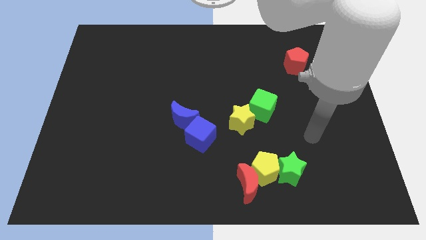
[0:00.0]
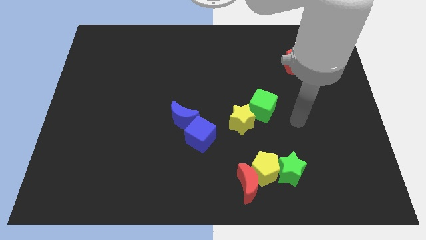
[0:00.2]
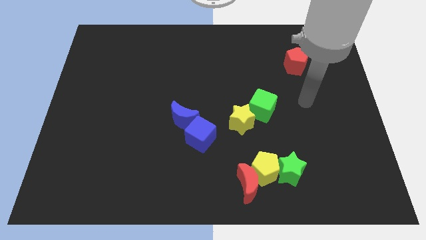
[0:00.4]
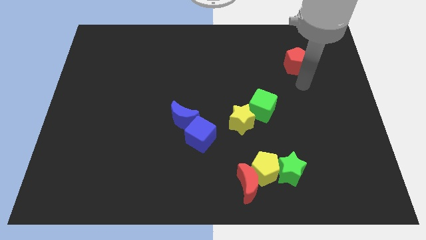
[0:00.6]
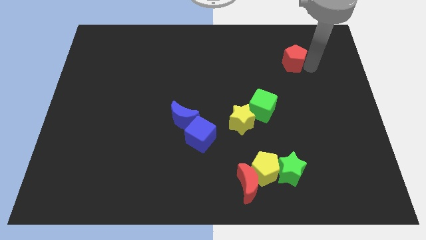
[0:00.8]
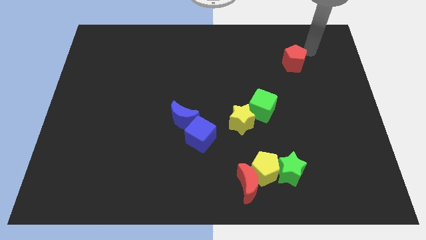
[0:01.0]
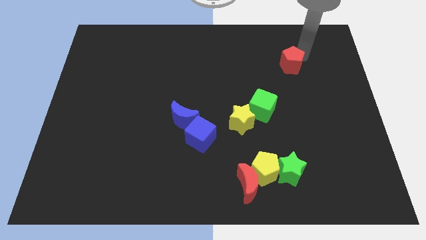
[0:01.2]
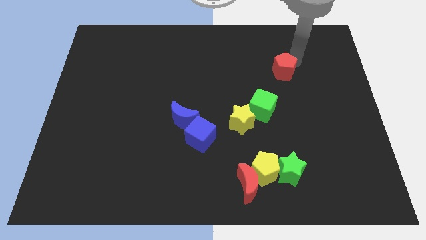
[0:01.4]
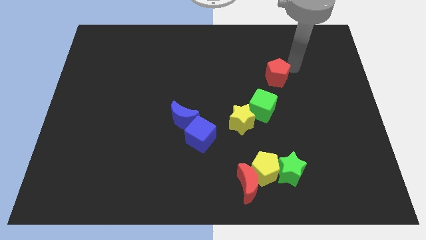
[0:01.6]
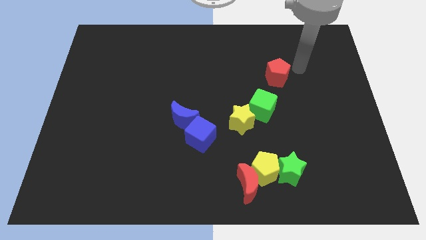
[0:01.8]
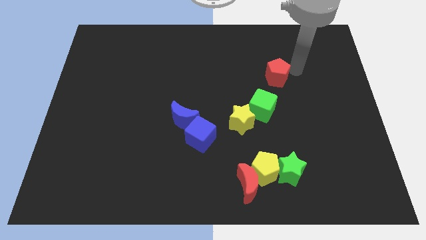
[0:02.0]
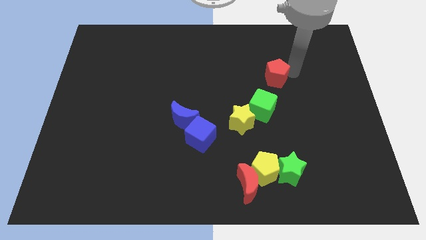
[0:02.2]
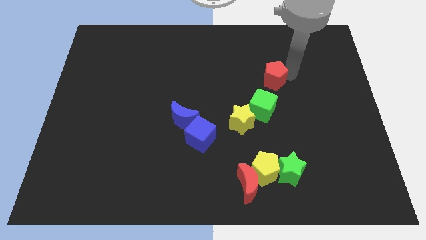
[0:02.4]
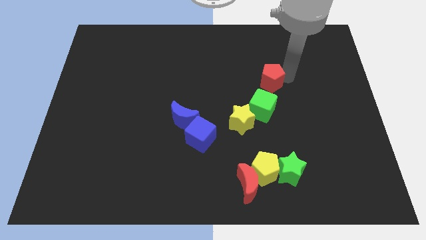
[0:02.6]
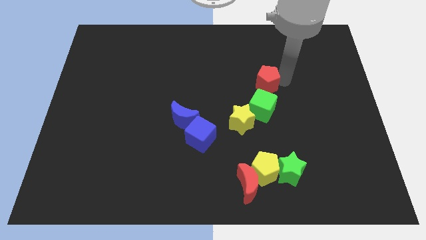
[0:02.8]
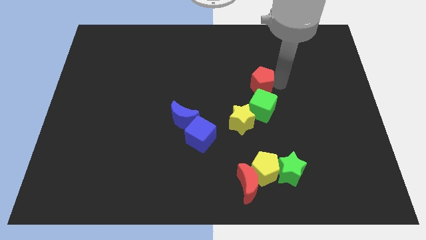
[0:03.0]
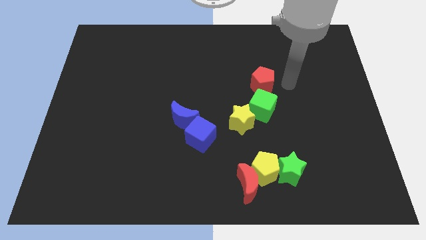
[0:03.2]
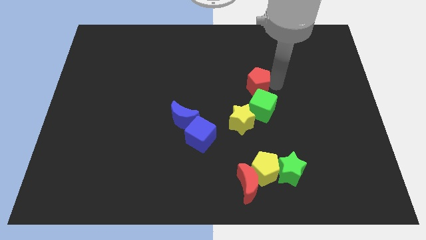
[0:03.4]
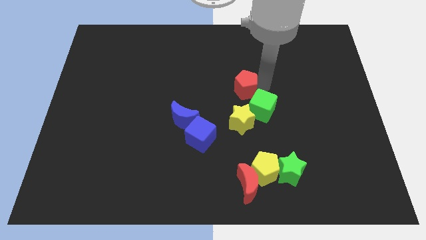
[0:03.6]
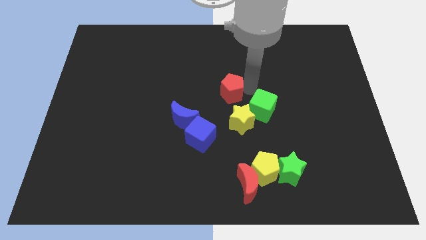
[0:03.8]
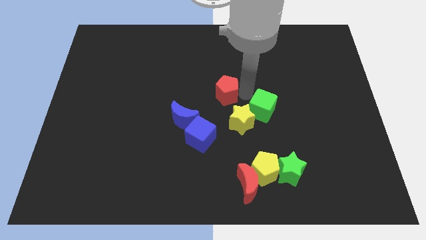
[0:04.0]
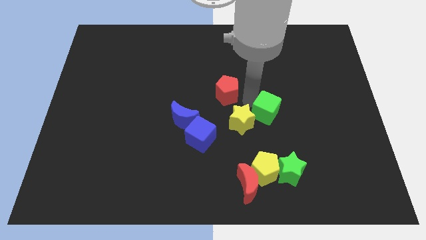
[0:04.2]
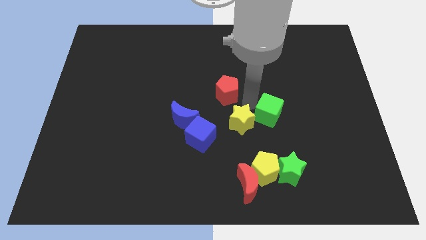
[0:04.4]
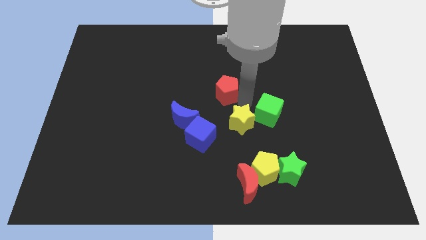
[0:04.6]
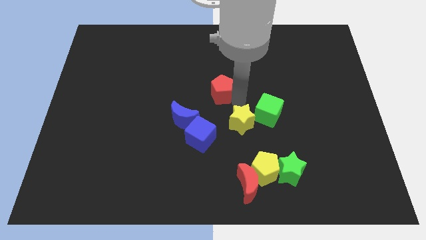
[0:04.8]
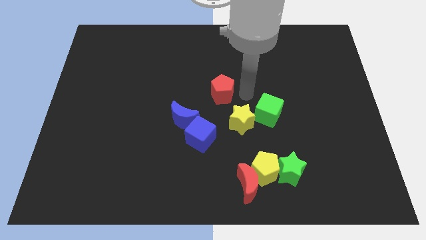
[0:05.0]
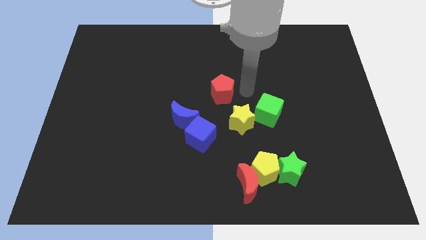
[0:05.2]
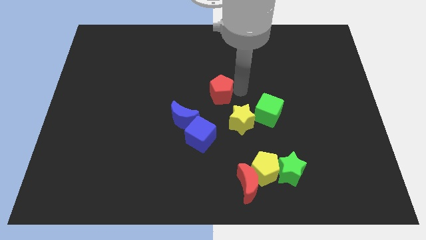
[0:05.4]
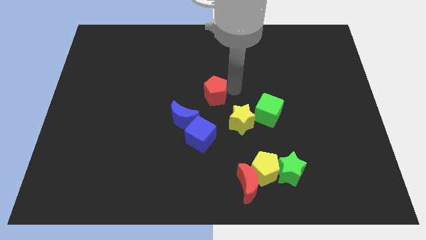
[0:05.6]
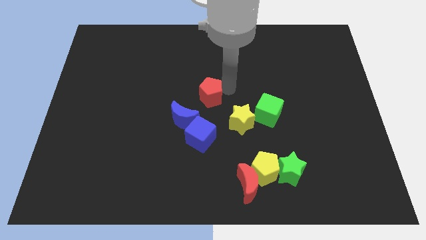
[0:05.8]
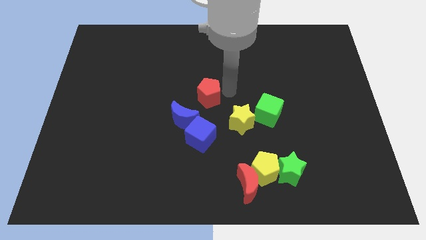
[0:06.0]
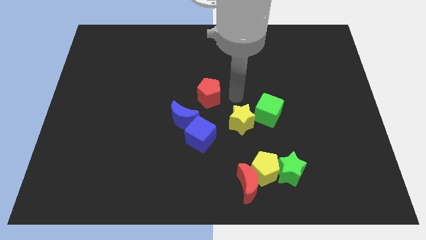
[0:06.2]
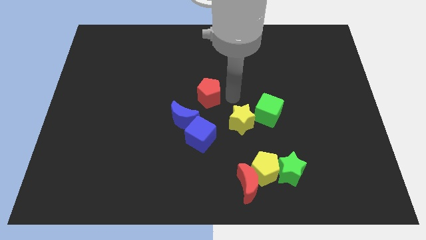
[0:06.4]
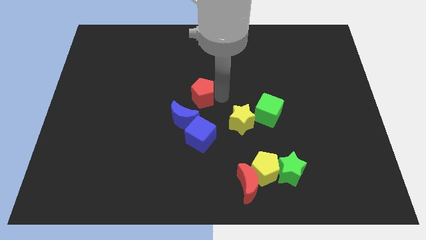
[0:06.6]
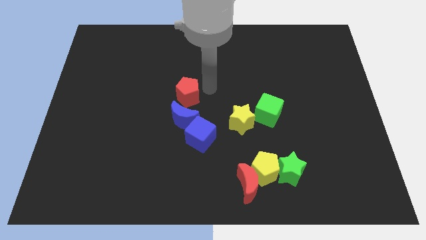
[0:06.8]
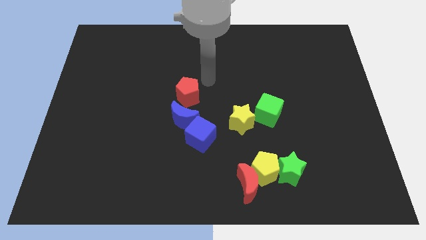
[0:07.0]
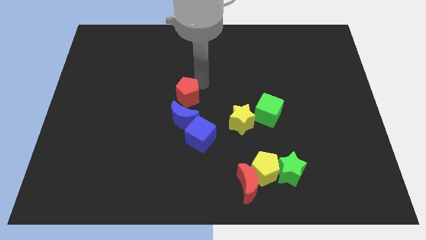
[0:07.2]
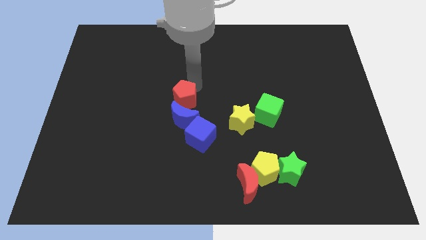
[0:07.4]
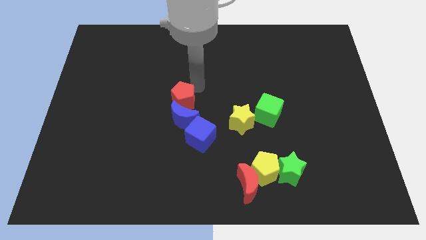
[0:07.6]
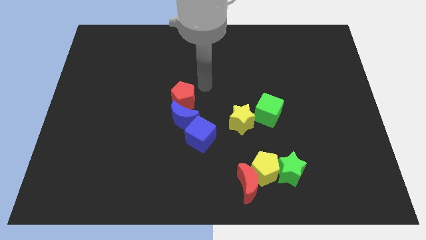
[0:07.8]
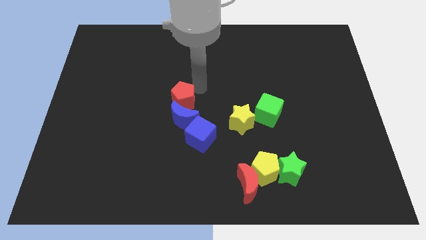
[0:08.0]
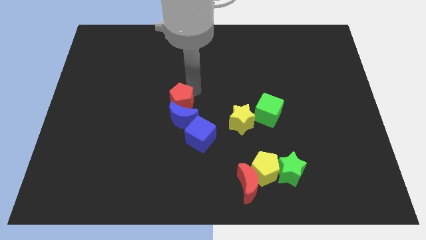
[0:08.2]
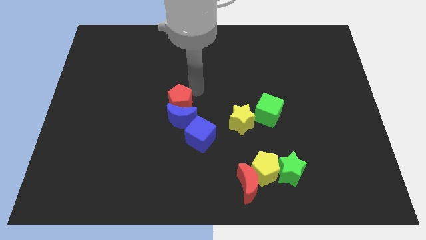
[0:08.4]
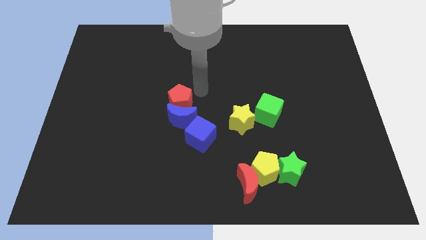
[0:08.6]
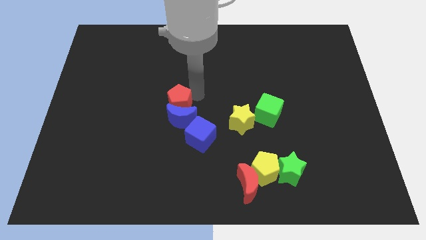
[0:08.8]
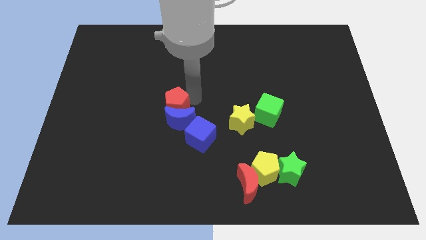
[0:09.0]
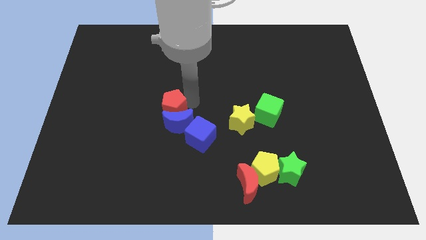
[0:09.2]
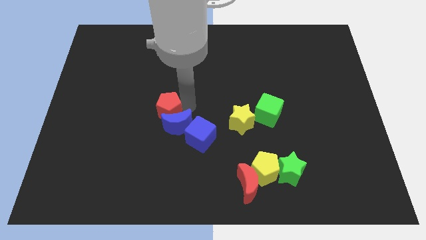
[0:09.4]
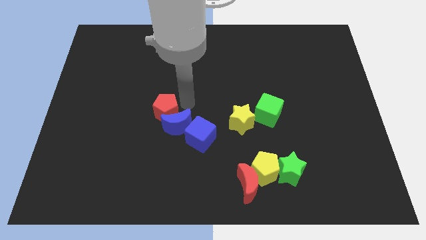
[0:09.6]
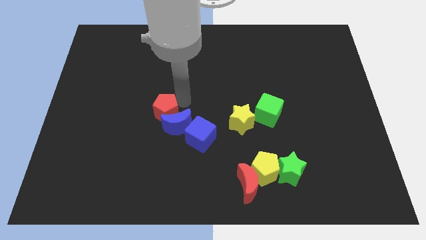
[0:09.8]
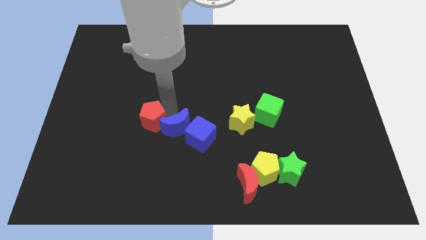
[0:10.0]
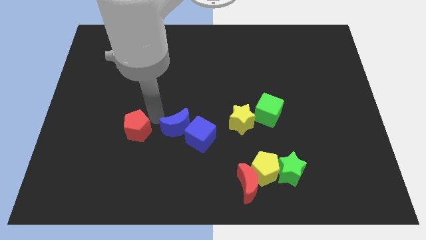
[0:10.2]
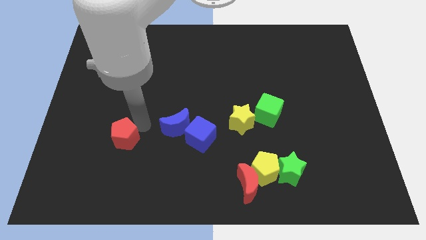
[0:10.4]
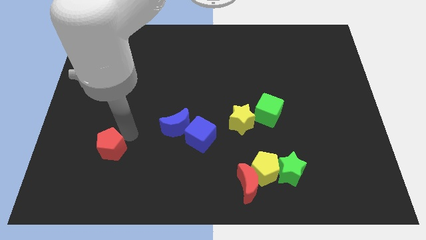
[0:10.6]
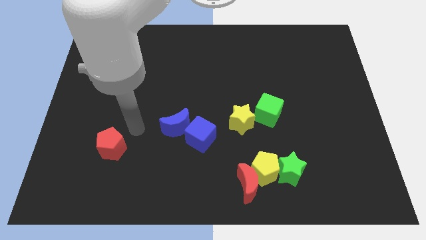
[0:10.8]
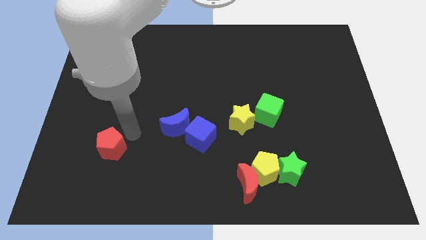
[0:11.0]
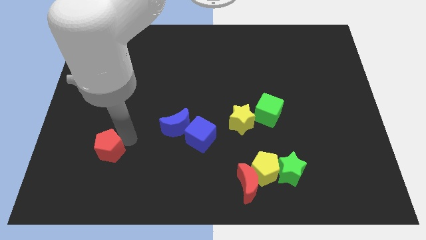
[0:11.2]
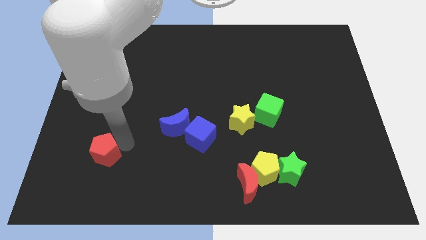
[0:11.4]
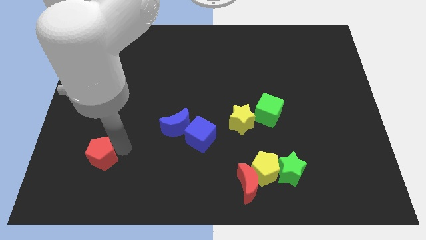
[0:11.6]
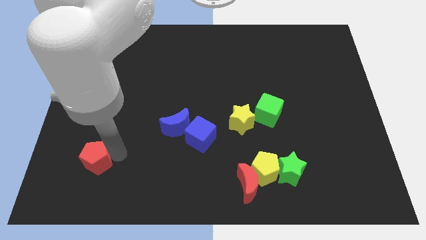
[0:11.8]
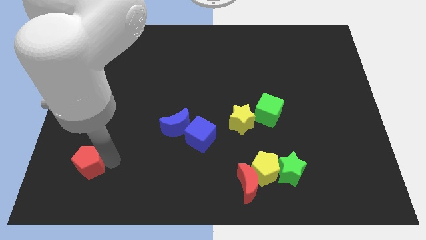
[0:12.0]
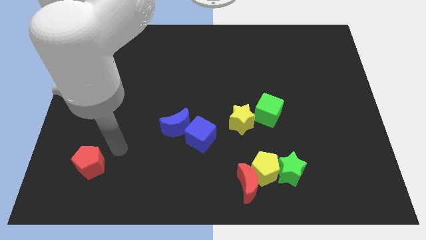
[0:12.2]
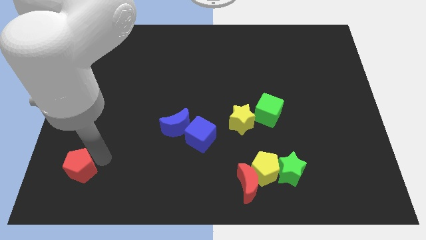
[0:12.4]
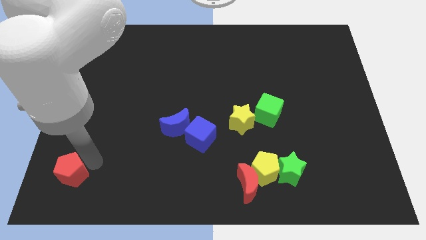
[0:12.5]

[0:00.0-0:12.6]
slide the red pentagon to the bottom left of the board

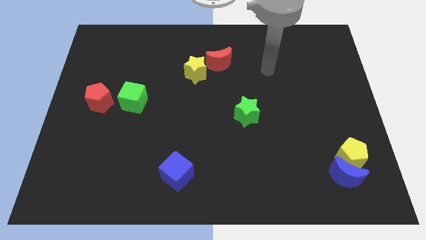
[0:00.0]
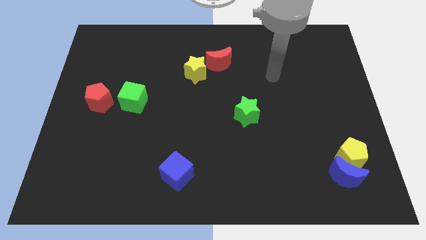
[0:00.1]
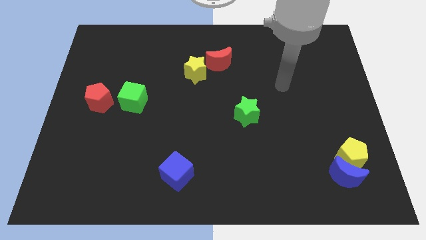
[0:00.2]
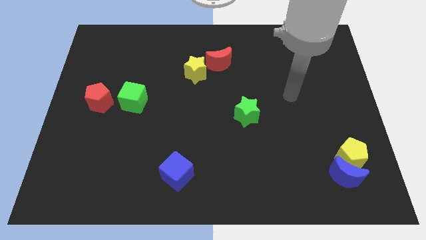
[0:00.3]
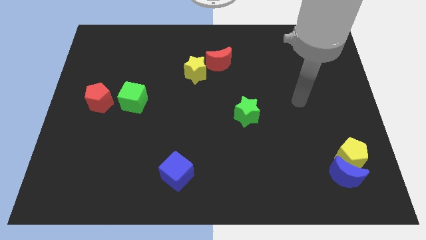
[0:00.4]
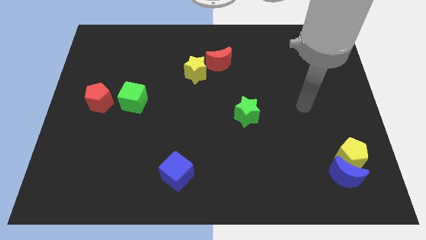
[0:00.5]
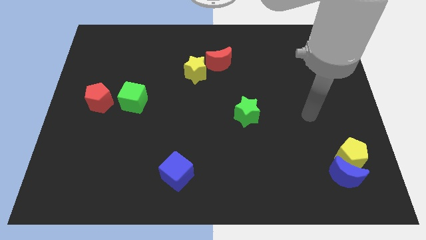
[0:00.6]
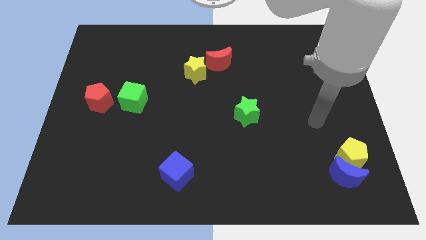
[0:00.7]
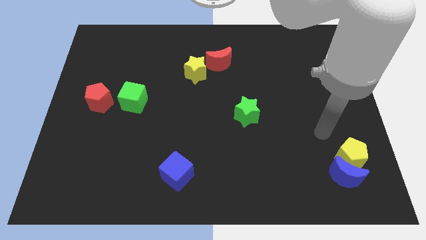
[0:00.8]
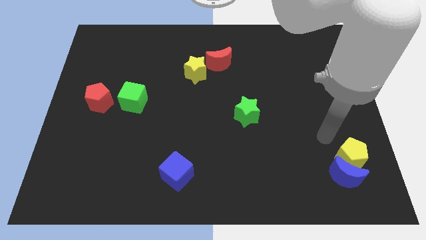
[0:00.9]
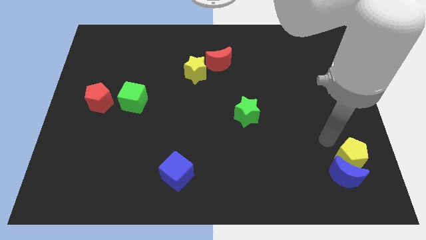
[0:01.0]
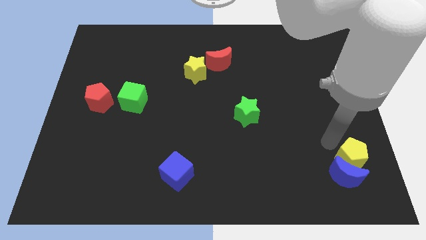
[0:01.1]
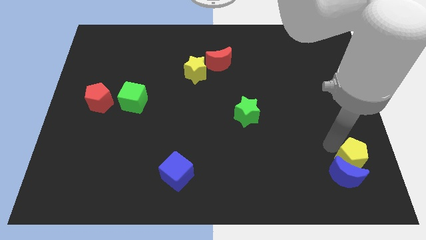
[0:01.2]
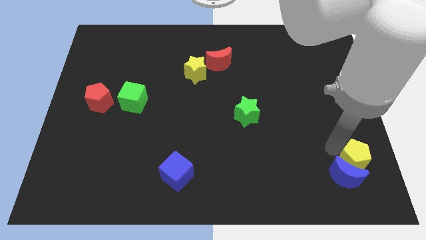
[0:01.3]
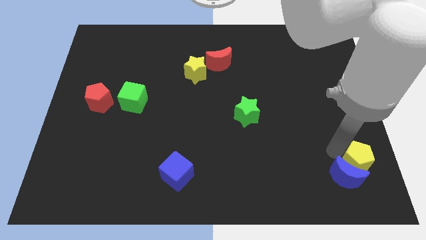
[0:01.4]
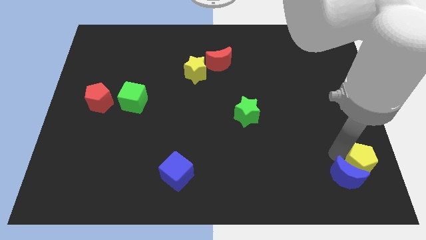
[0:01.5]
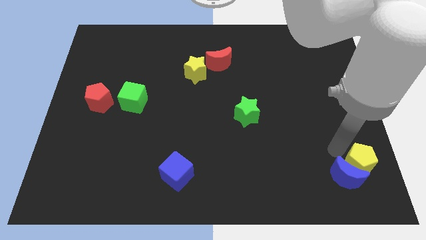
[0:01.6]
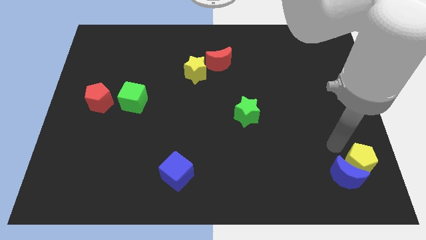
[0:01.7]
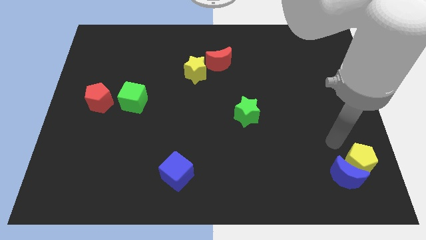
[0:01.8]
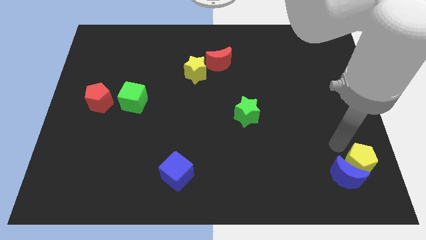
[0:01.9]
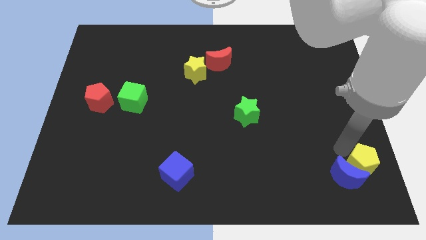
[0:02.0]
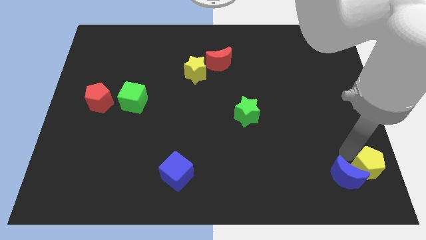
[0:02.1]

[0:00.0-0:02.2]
push the yellow pentagon to the bottom right of the board
